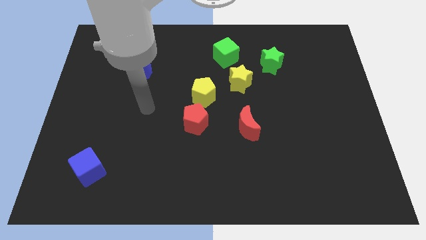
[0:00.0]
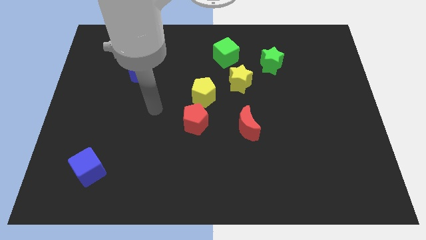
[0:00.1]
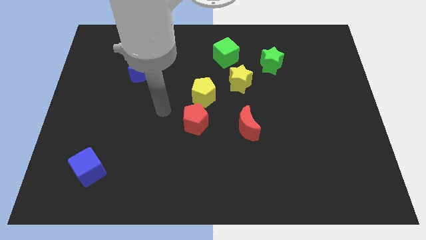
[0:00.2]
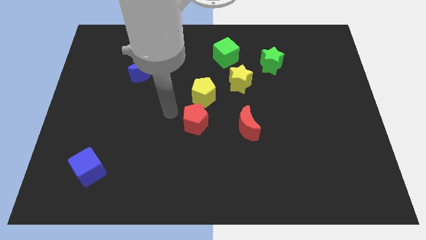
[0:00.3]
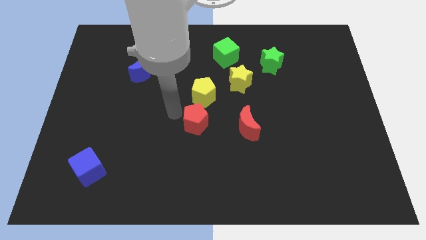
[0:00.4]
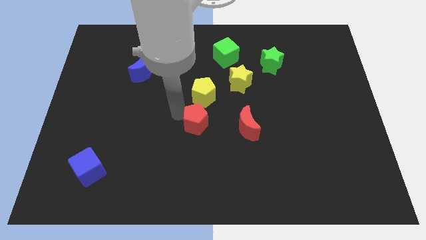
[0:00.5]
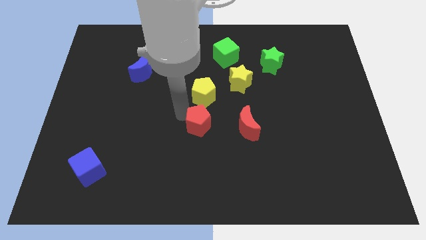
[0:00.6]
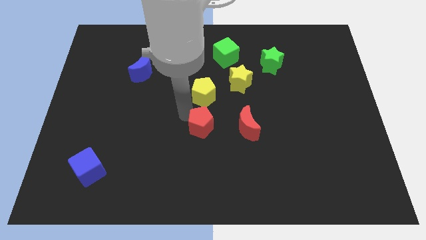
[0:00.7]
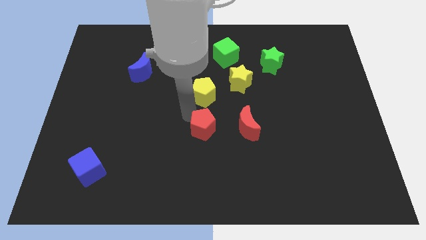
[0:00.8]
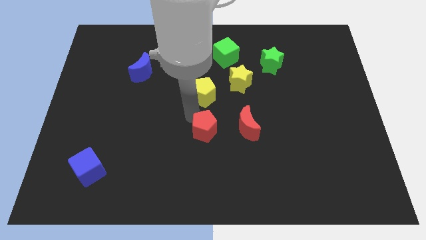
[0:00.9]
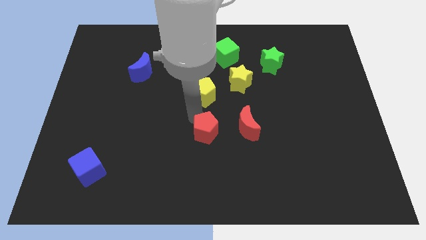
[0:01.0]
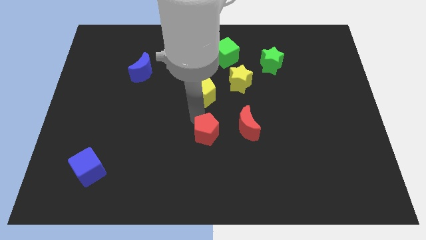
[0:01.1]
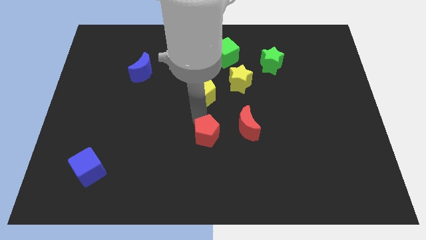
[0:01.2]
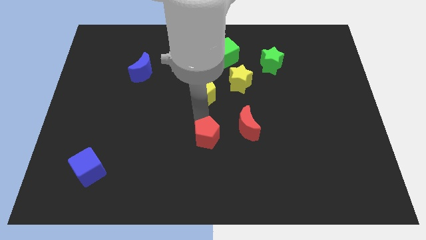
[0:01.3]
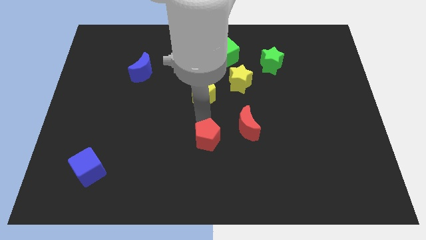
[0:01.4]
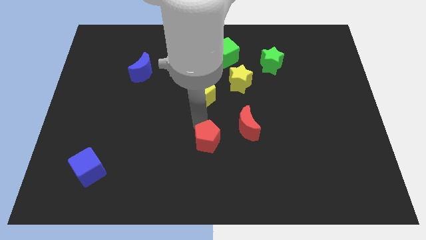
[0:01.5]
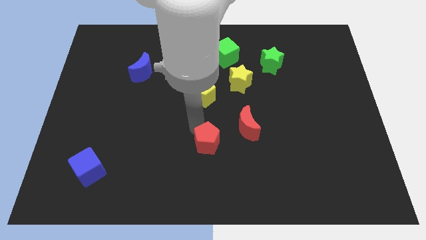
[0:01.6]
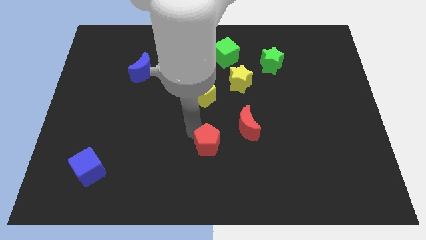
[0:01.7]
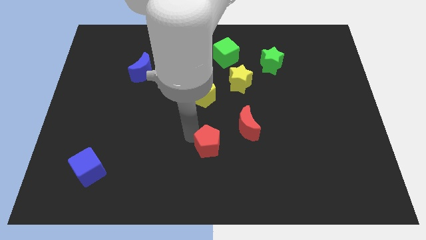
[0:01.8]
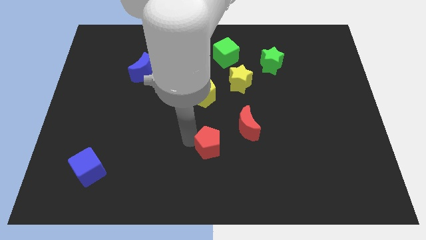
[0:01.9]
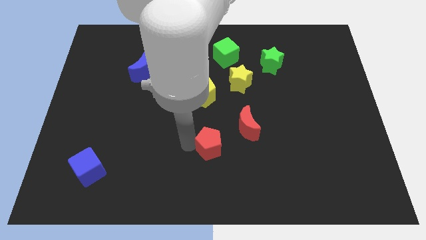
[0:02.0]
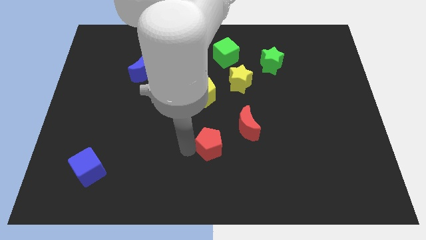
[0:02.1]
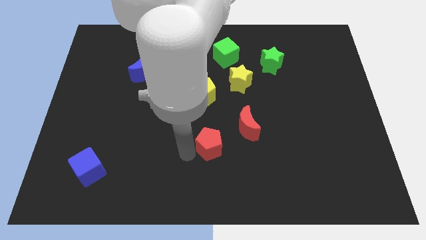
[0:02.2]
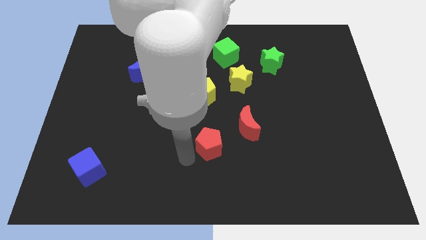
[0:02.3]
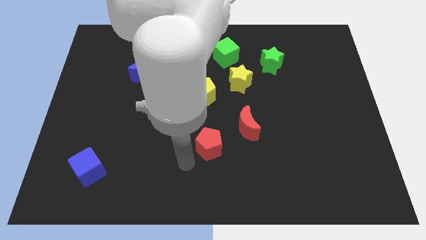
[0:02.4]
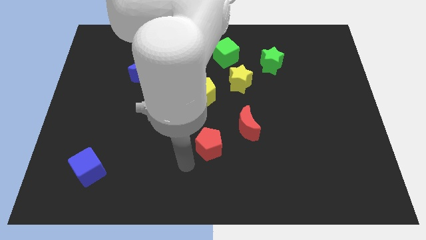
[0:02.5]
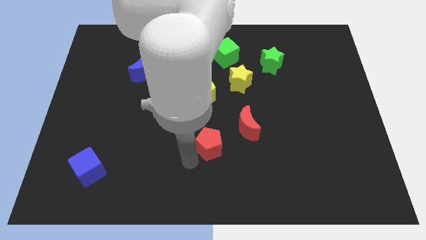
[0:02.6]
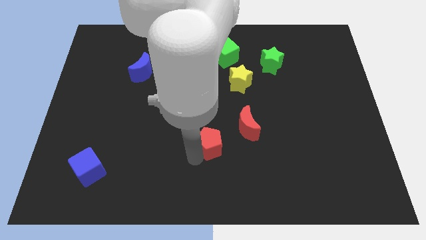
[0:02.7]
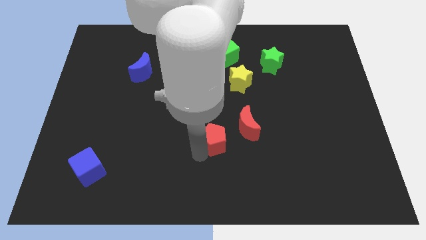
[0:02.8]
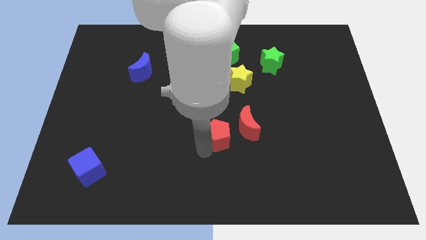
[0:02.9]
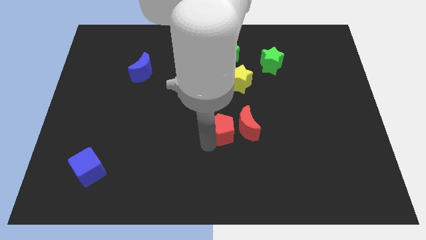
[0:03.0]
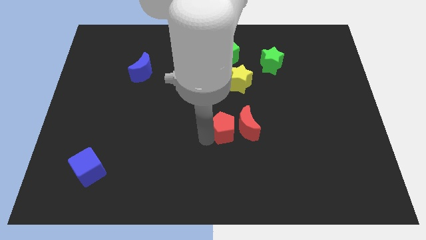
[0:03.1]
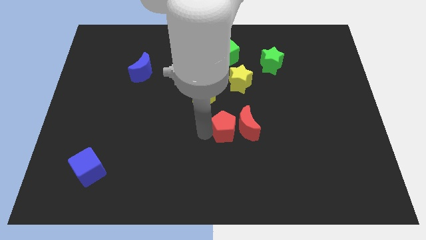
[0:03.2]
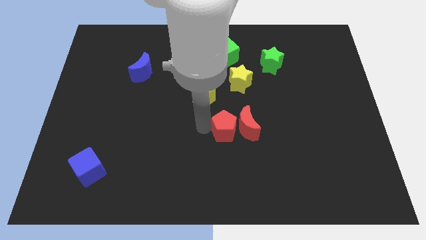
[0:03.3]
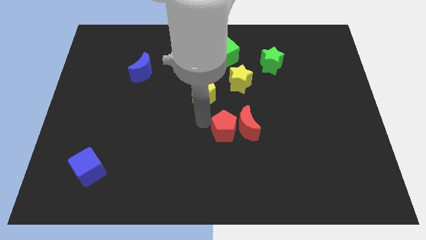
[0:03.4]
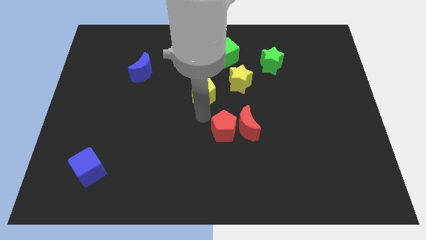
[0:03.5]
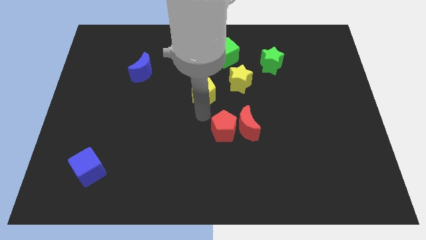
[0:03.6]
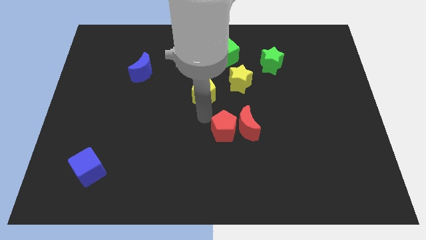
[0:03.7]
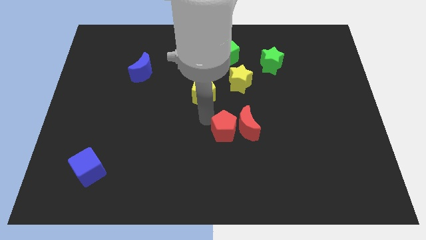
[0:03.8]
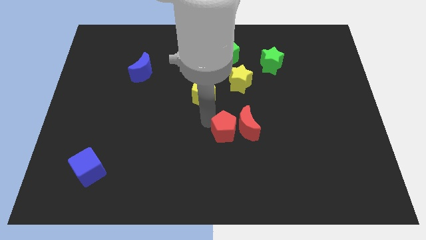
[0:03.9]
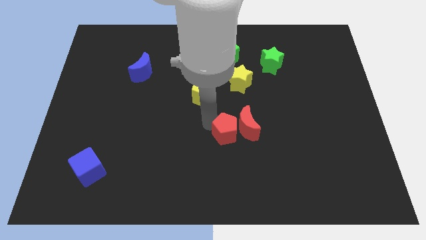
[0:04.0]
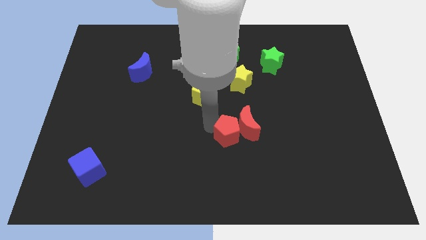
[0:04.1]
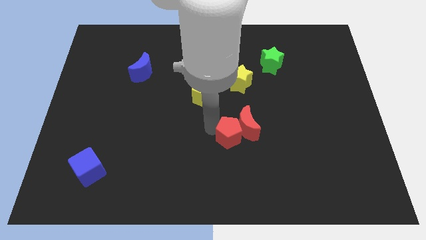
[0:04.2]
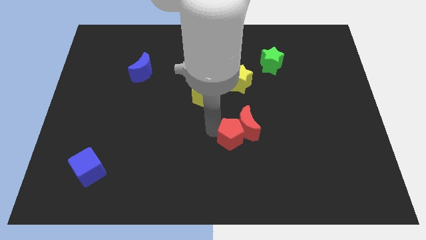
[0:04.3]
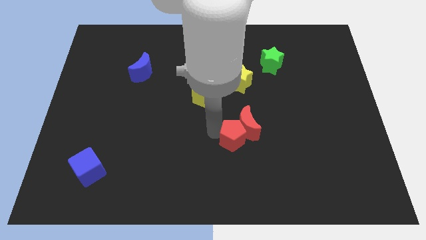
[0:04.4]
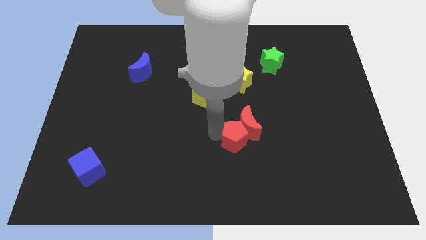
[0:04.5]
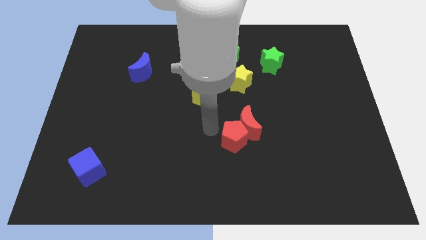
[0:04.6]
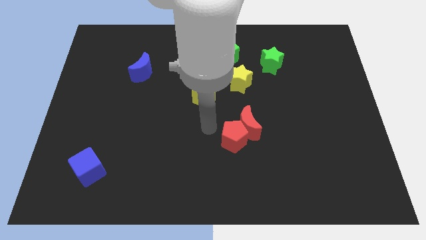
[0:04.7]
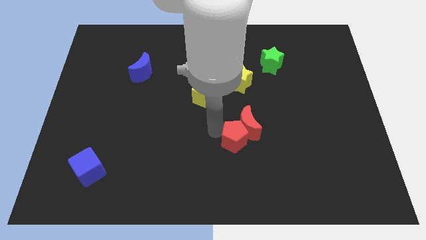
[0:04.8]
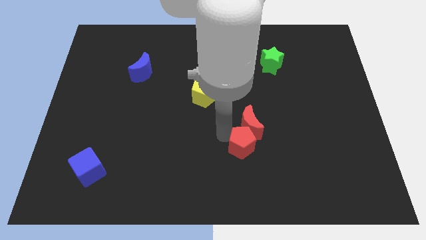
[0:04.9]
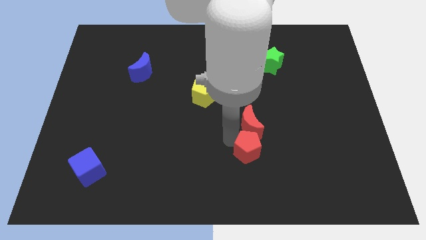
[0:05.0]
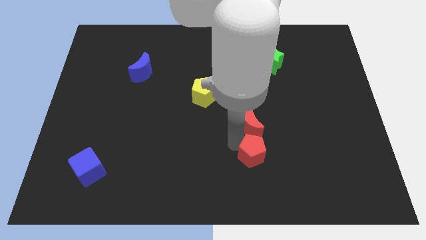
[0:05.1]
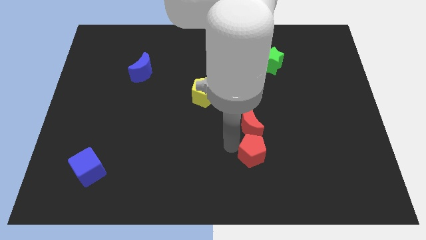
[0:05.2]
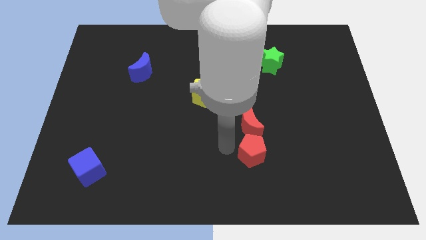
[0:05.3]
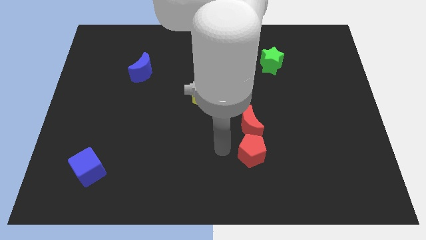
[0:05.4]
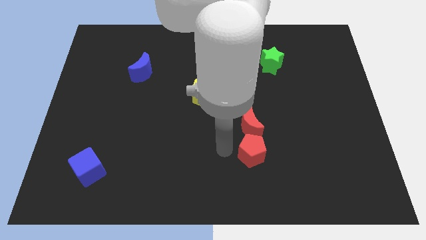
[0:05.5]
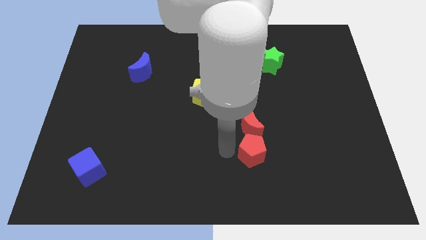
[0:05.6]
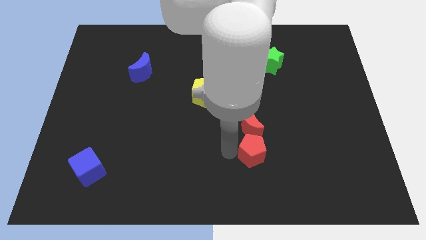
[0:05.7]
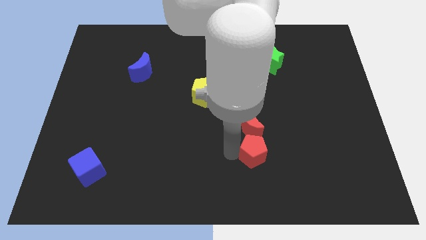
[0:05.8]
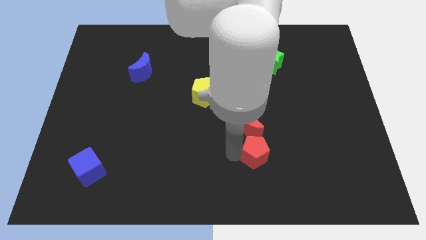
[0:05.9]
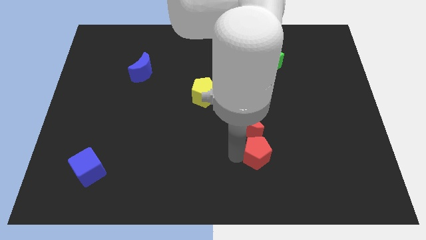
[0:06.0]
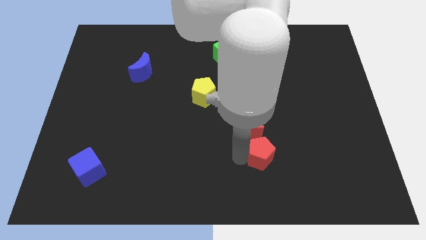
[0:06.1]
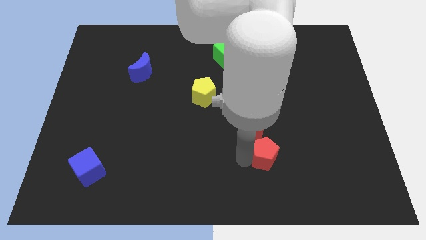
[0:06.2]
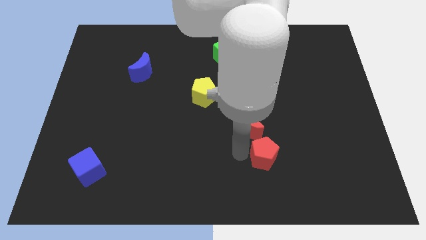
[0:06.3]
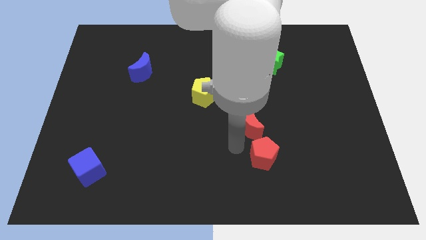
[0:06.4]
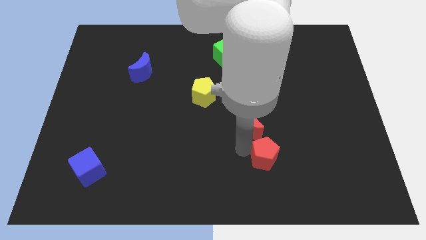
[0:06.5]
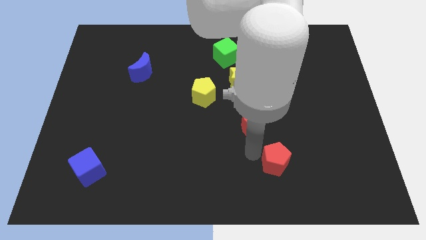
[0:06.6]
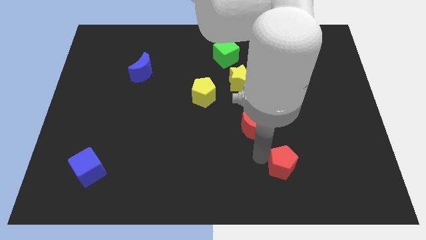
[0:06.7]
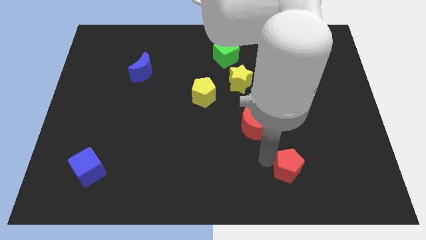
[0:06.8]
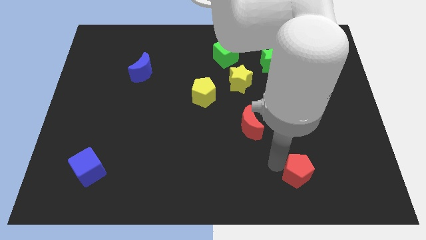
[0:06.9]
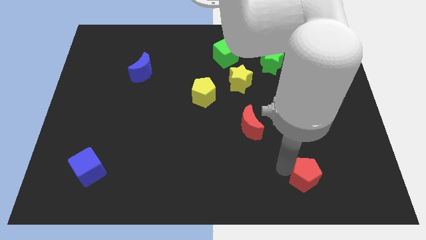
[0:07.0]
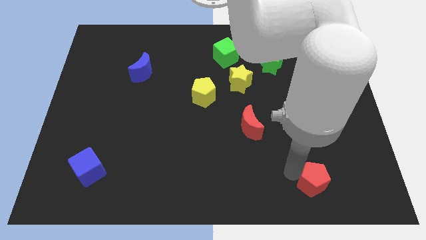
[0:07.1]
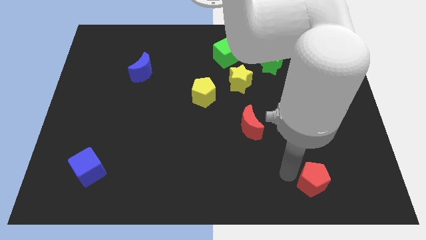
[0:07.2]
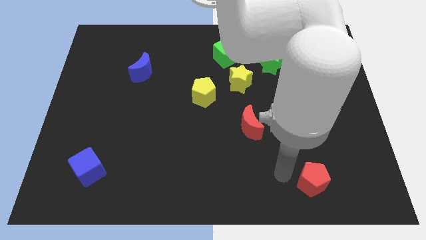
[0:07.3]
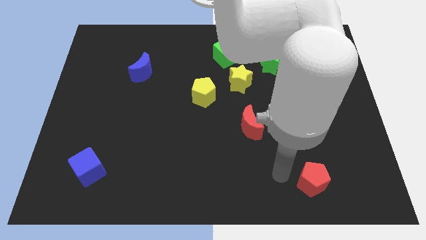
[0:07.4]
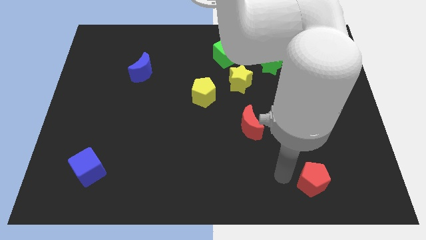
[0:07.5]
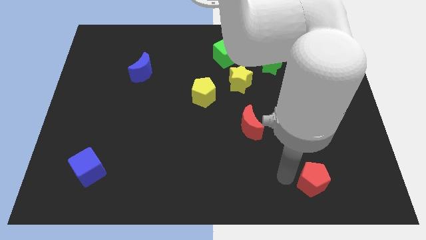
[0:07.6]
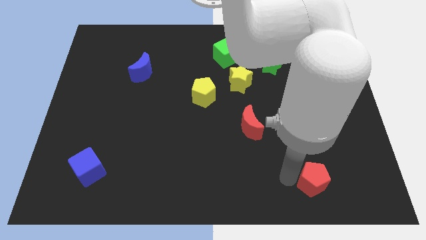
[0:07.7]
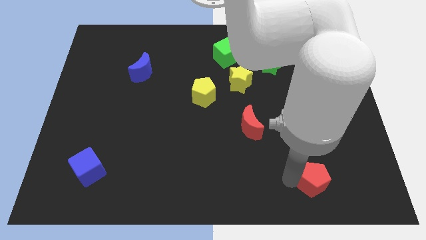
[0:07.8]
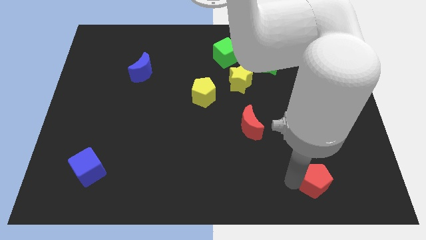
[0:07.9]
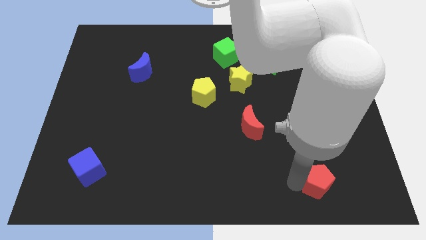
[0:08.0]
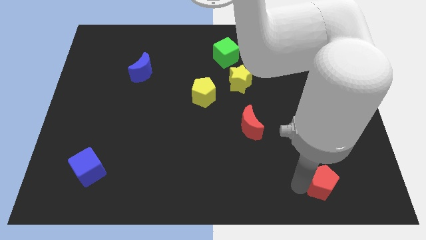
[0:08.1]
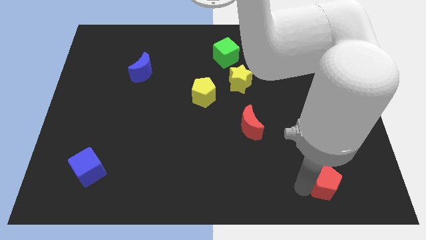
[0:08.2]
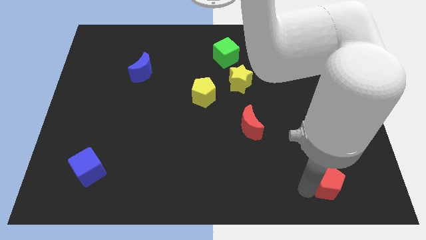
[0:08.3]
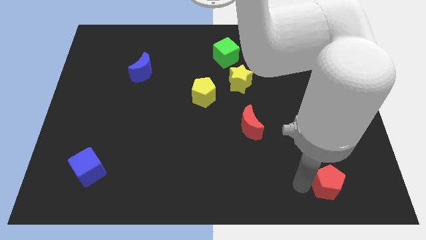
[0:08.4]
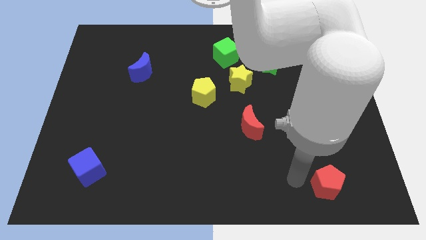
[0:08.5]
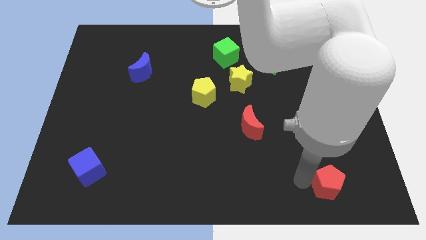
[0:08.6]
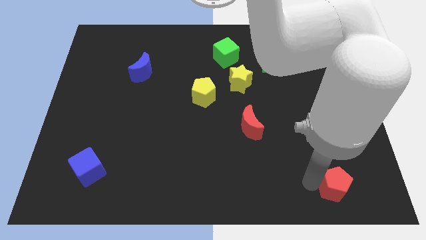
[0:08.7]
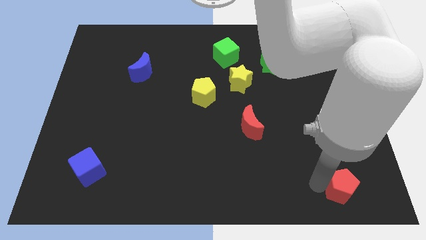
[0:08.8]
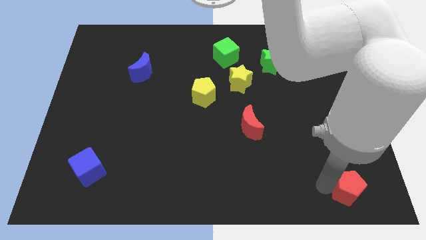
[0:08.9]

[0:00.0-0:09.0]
move the red pentagon to the lower right corner
